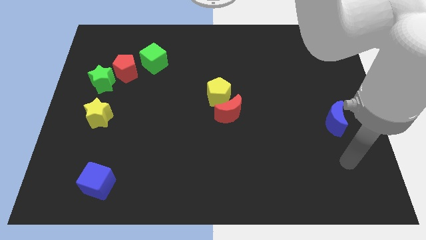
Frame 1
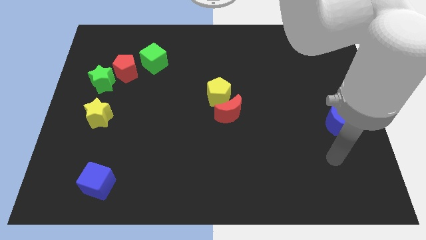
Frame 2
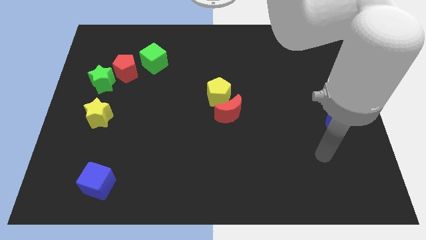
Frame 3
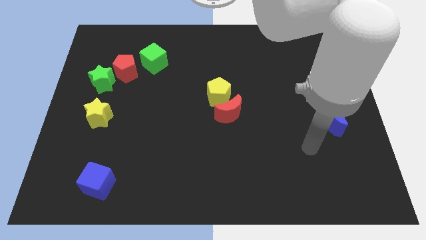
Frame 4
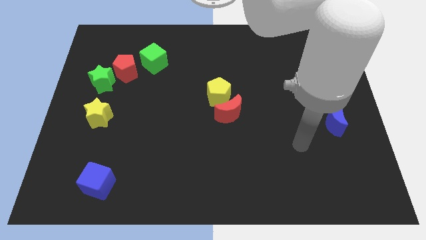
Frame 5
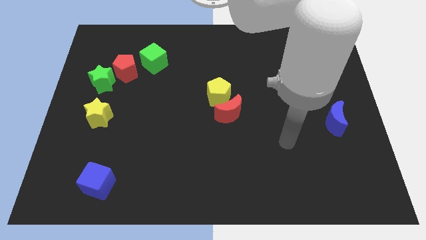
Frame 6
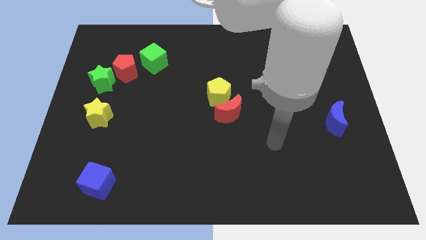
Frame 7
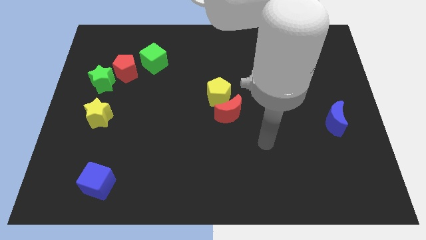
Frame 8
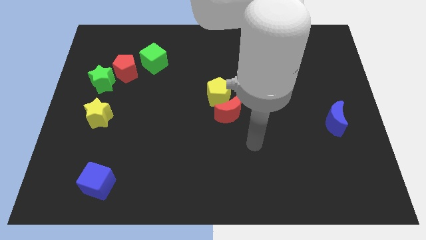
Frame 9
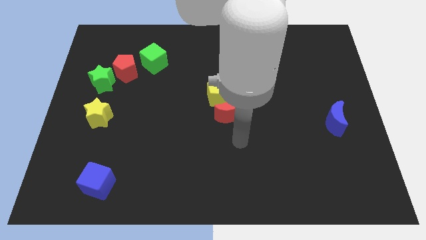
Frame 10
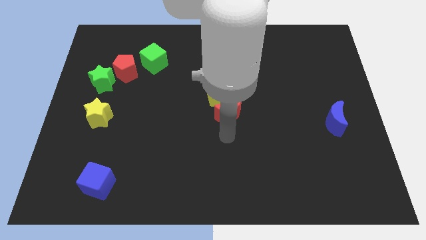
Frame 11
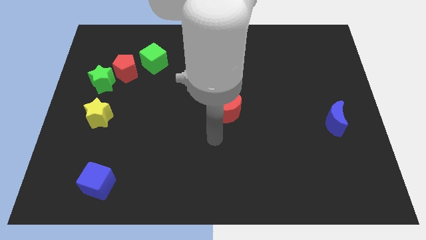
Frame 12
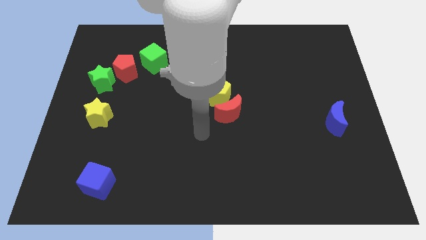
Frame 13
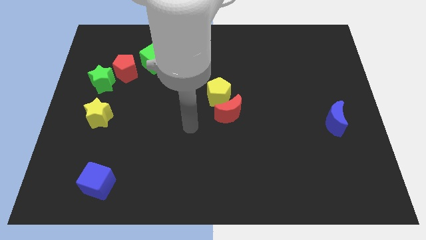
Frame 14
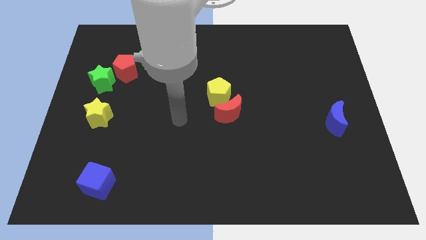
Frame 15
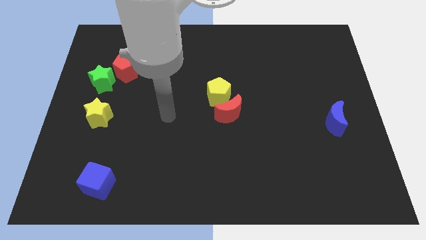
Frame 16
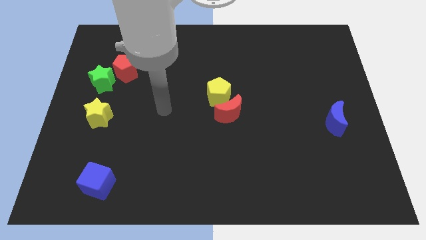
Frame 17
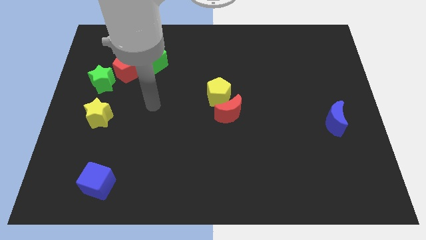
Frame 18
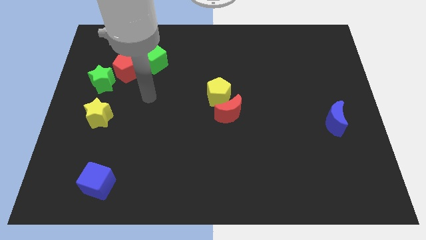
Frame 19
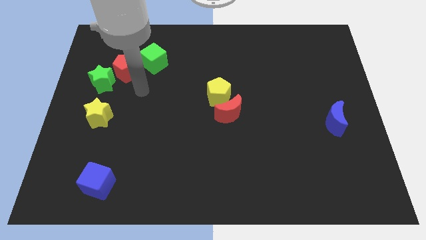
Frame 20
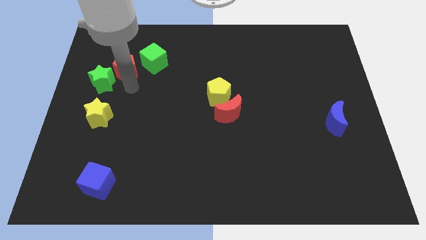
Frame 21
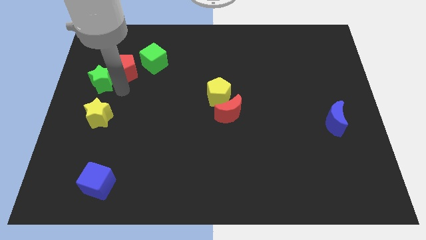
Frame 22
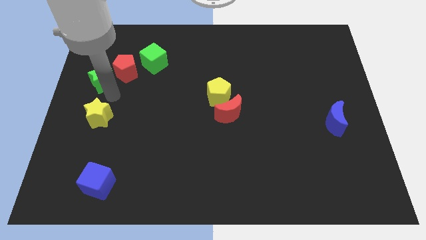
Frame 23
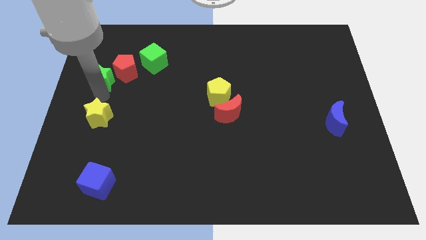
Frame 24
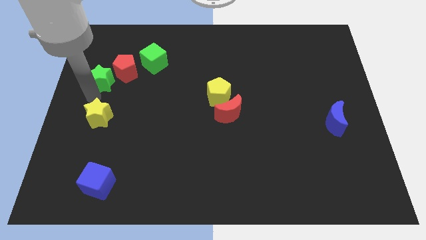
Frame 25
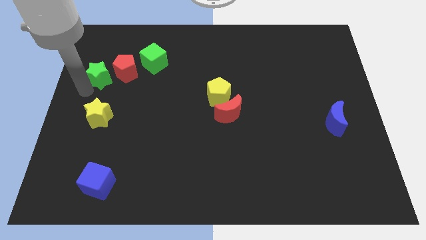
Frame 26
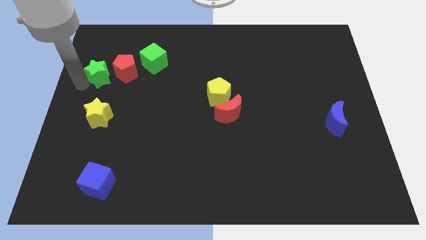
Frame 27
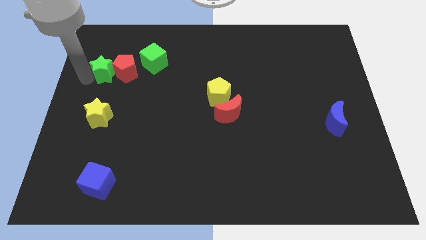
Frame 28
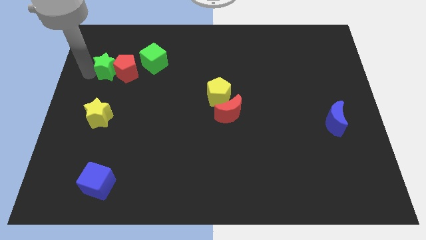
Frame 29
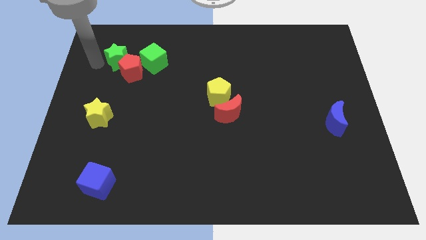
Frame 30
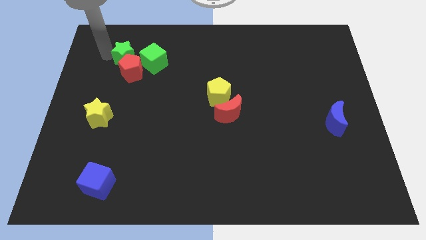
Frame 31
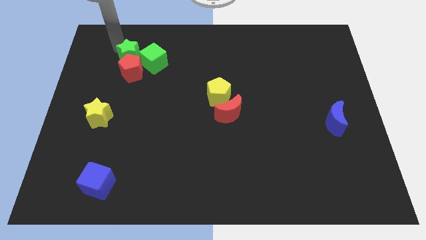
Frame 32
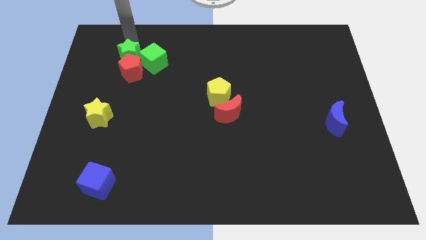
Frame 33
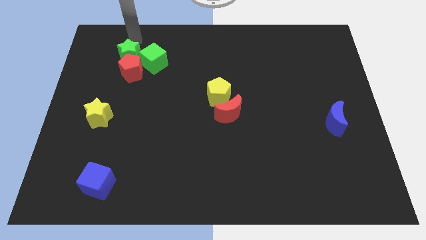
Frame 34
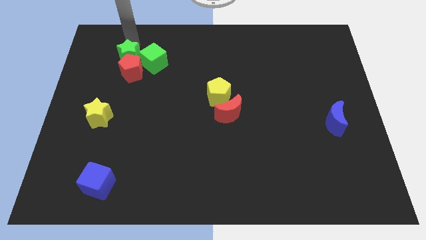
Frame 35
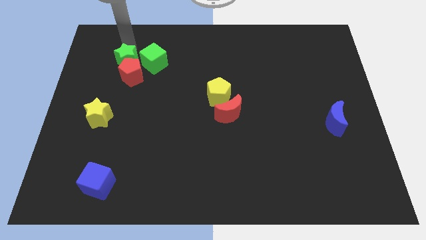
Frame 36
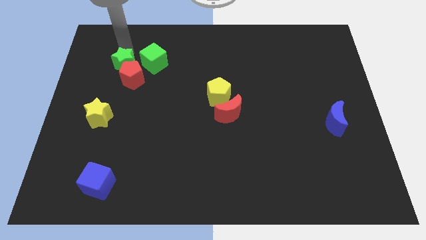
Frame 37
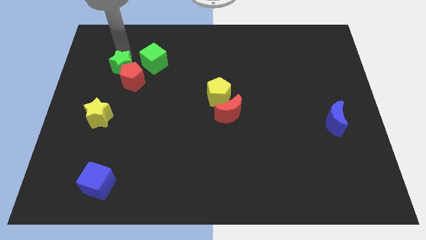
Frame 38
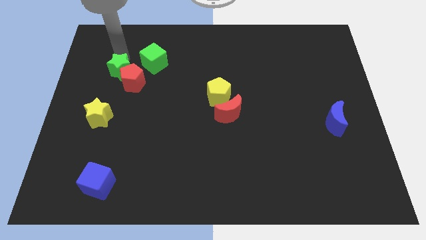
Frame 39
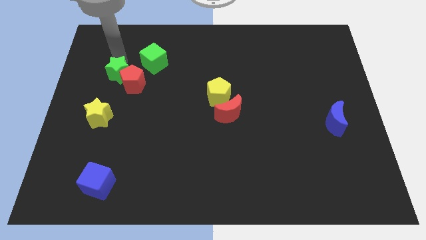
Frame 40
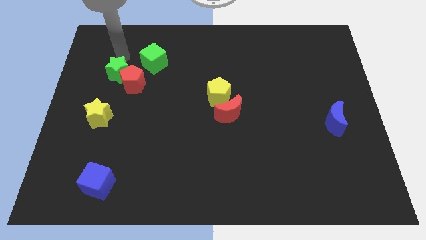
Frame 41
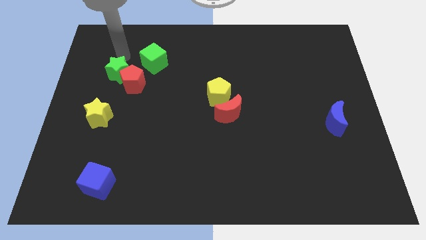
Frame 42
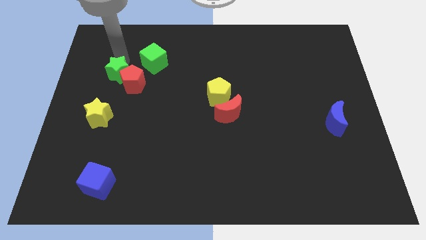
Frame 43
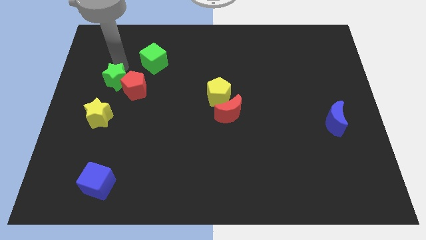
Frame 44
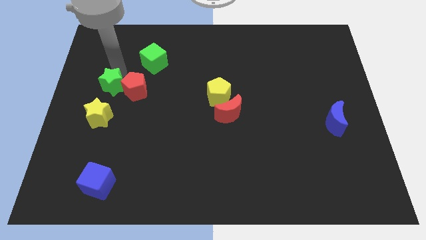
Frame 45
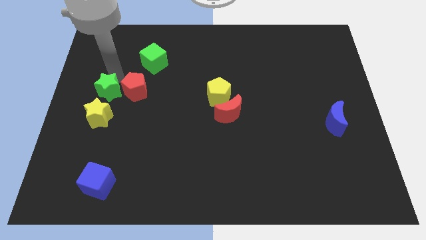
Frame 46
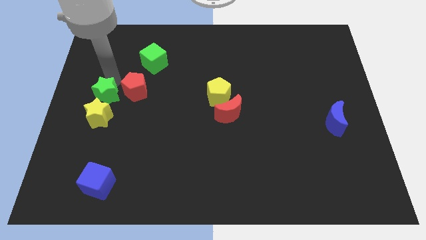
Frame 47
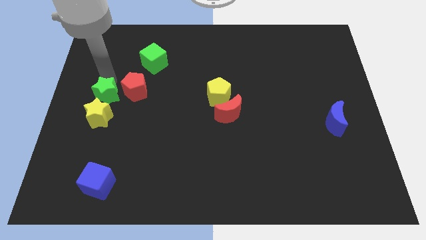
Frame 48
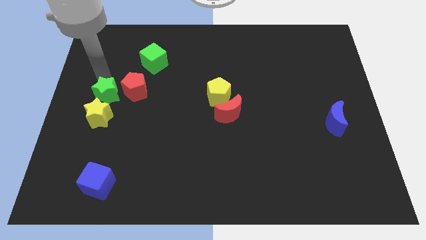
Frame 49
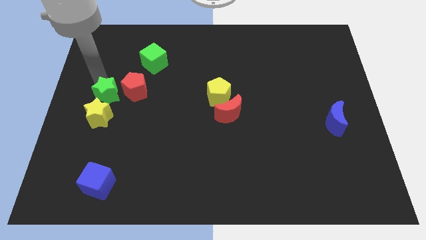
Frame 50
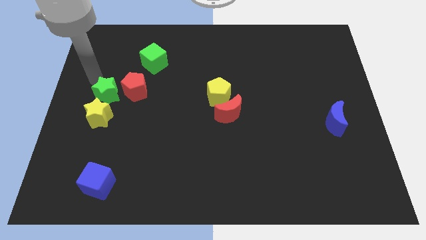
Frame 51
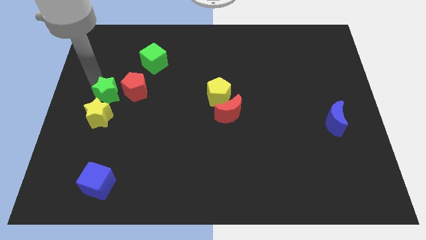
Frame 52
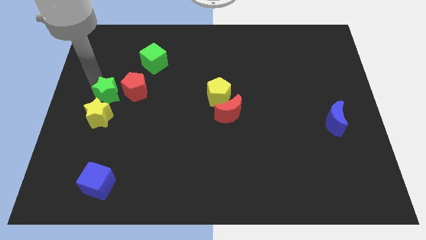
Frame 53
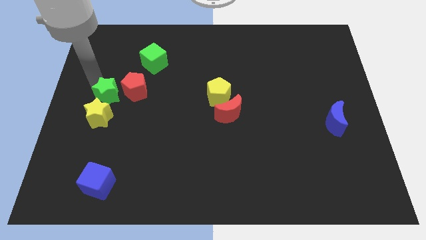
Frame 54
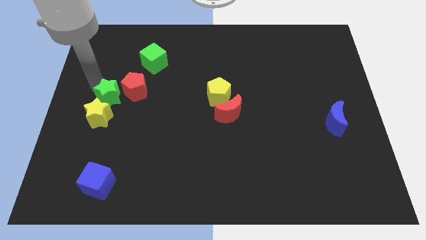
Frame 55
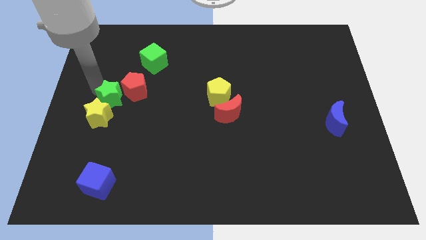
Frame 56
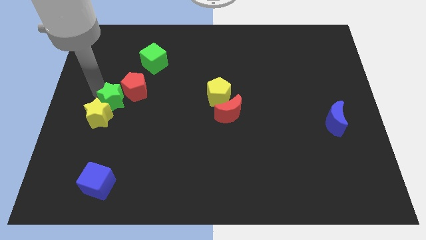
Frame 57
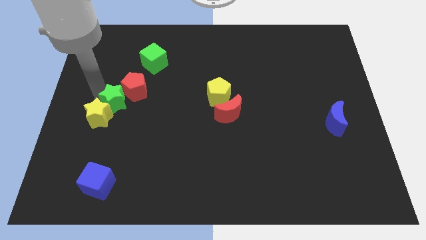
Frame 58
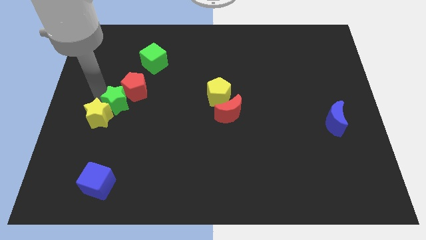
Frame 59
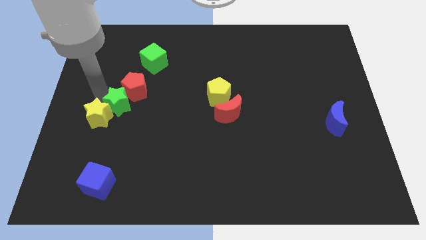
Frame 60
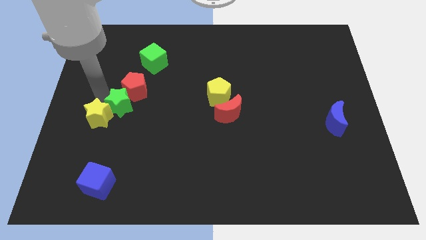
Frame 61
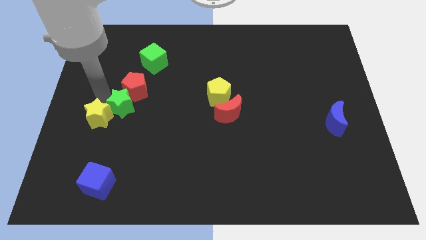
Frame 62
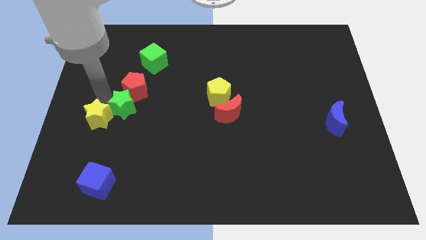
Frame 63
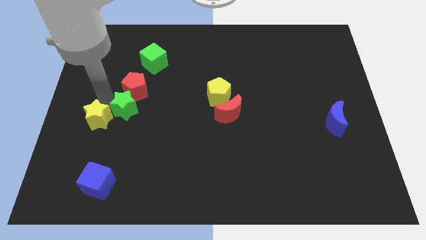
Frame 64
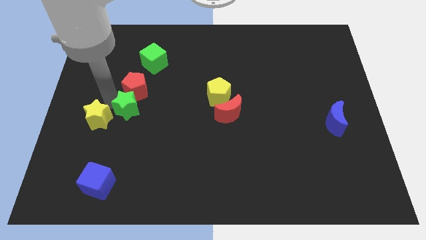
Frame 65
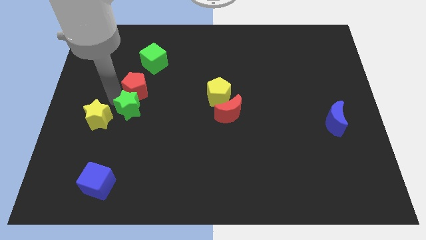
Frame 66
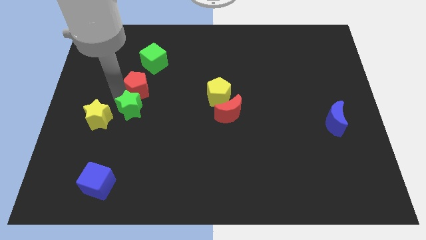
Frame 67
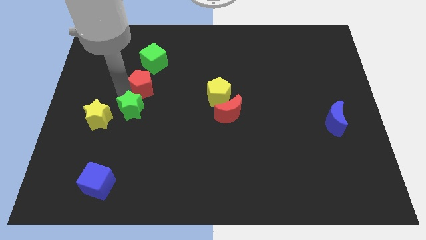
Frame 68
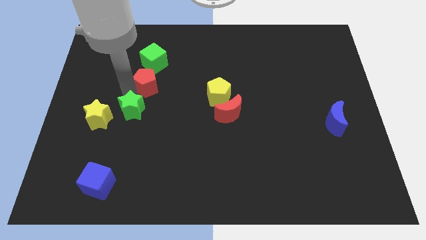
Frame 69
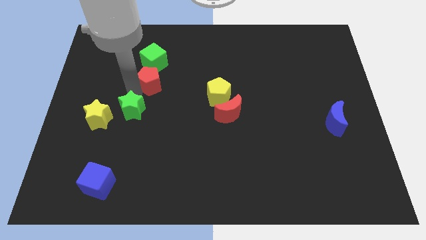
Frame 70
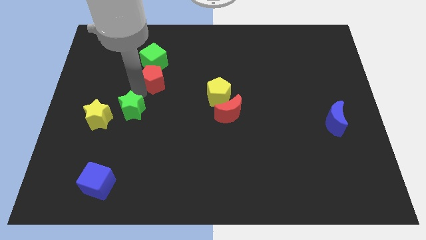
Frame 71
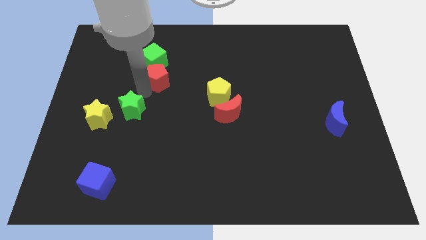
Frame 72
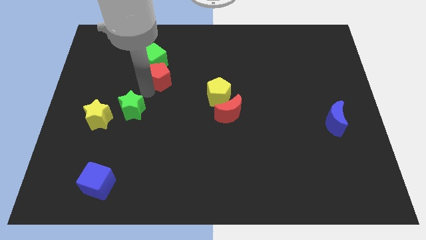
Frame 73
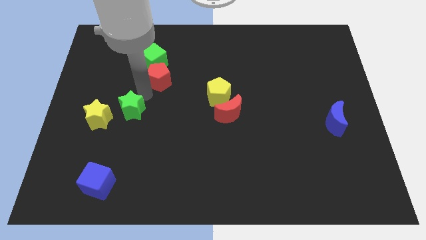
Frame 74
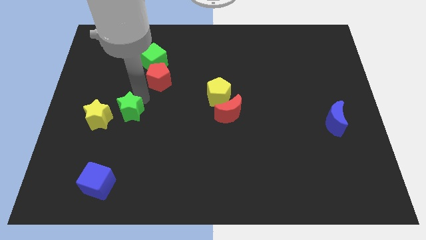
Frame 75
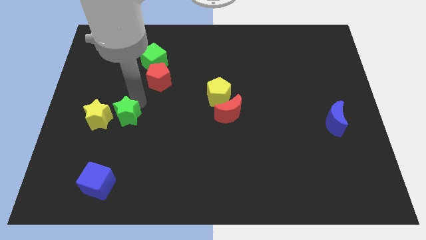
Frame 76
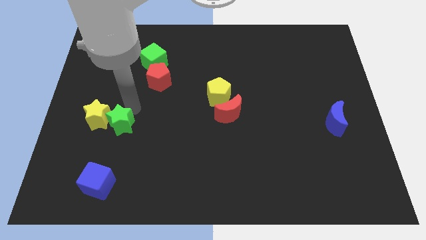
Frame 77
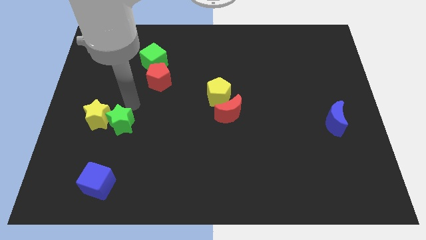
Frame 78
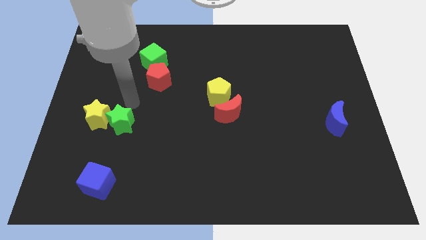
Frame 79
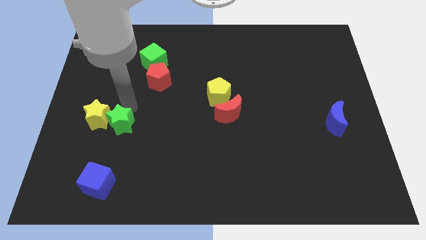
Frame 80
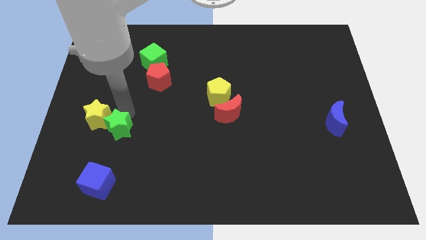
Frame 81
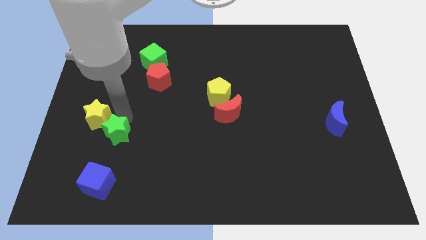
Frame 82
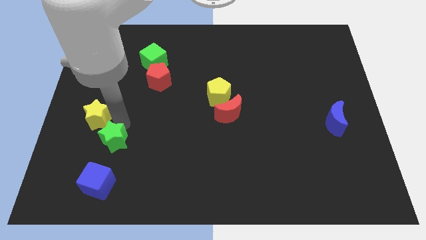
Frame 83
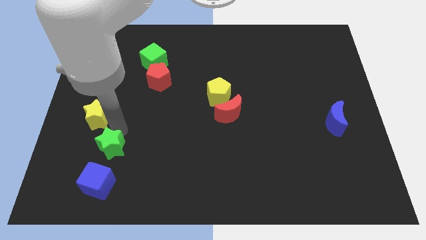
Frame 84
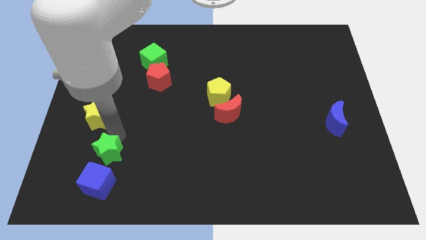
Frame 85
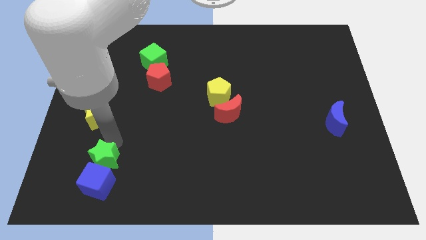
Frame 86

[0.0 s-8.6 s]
move the green star next to the blue cube
